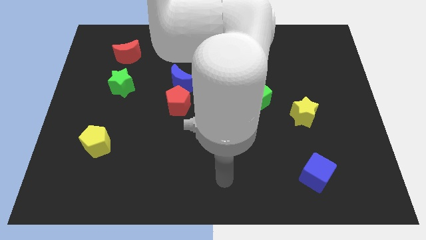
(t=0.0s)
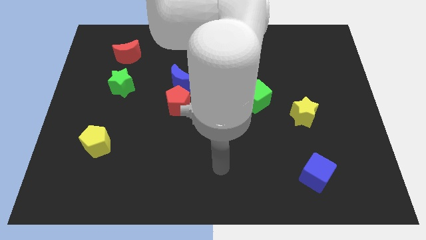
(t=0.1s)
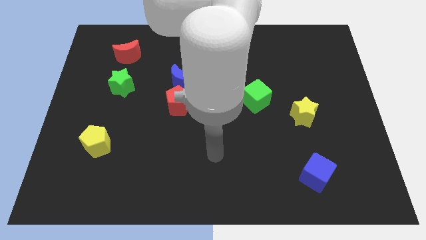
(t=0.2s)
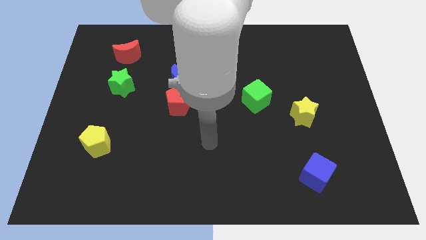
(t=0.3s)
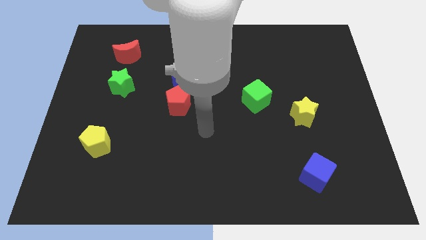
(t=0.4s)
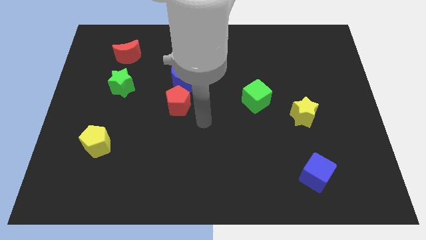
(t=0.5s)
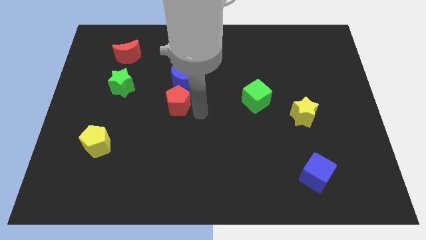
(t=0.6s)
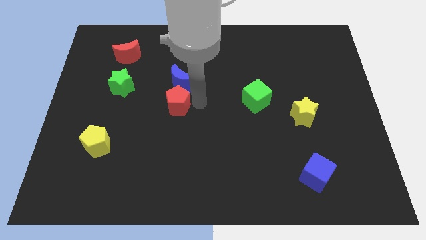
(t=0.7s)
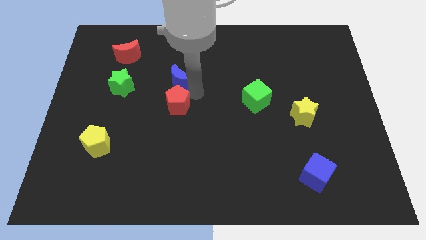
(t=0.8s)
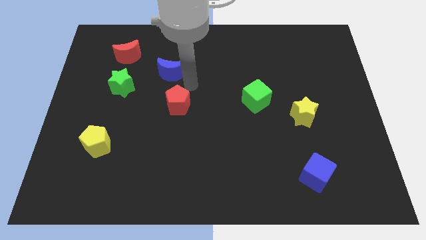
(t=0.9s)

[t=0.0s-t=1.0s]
separate the red pentagon from the blue moon

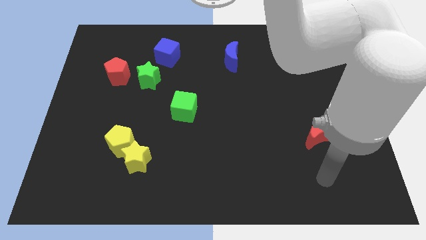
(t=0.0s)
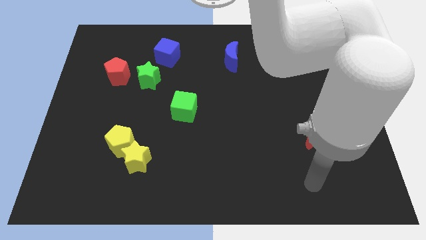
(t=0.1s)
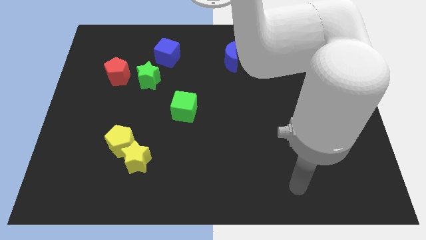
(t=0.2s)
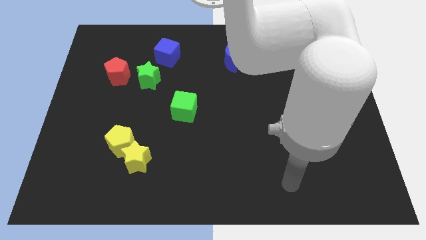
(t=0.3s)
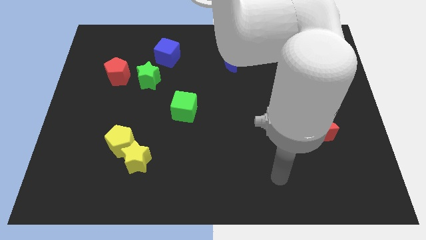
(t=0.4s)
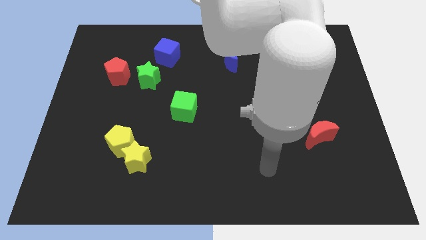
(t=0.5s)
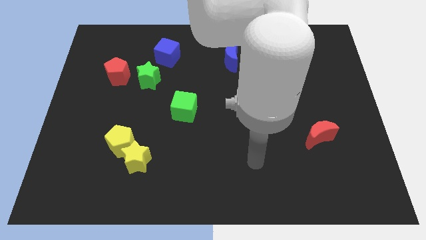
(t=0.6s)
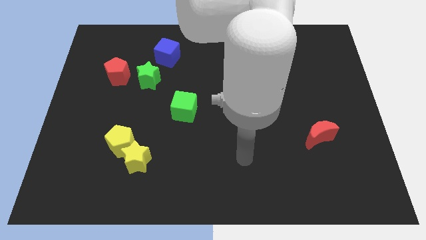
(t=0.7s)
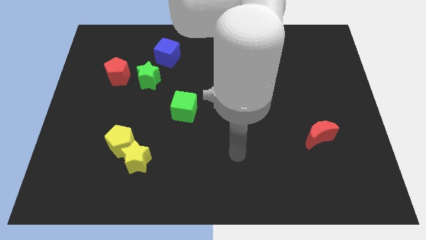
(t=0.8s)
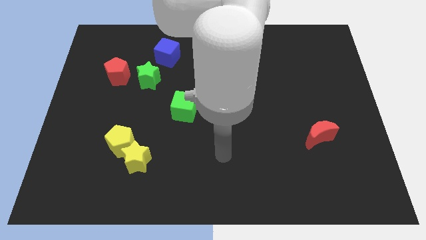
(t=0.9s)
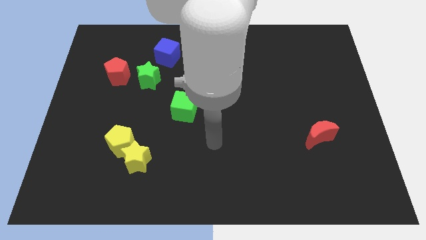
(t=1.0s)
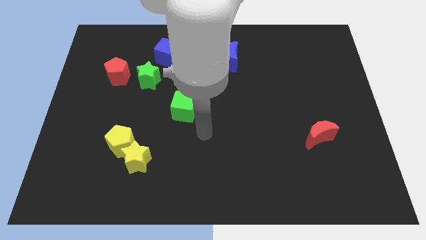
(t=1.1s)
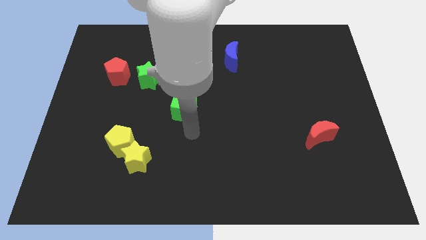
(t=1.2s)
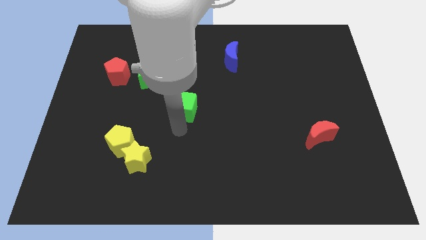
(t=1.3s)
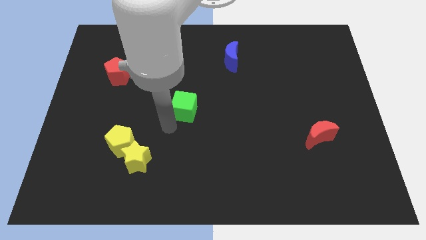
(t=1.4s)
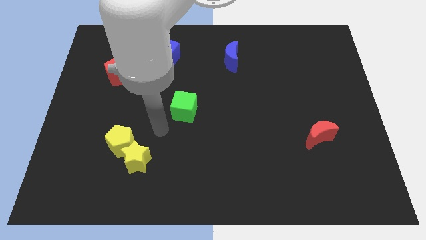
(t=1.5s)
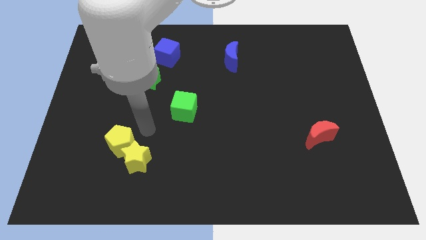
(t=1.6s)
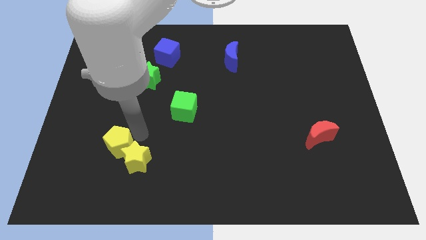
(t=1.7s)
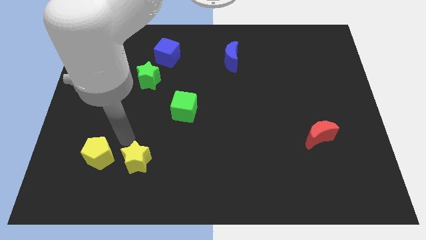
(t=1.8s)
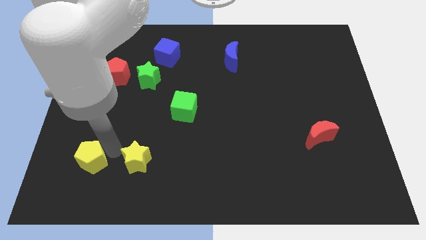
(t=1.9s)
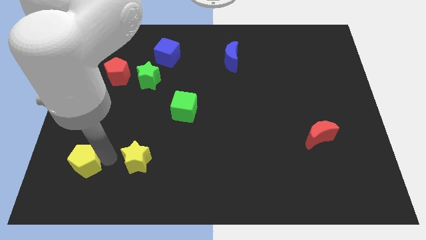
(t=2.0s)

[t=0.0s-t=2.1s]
separate the yellow star from the yellow pentagon

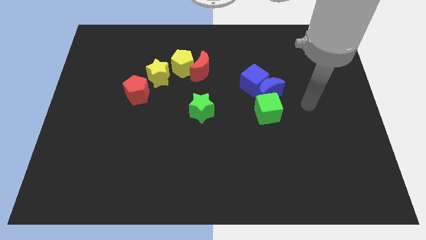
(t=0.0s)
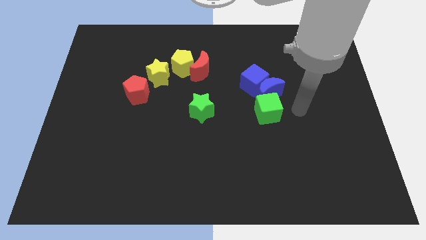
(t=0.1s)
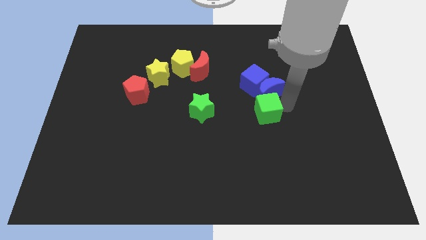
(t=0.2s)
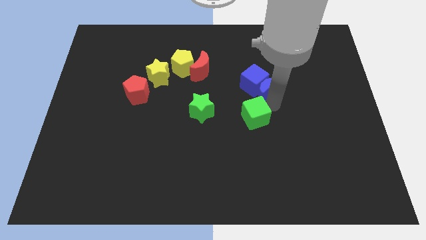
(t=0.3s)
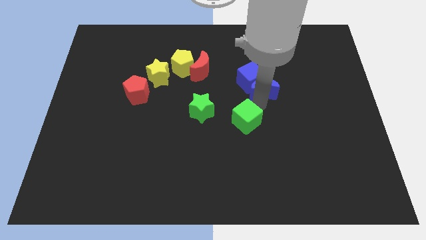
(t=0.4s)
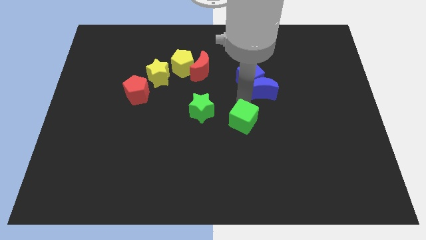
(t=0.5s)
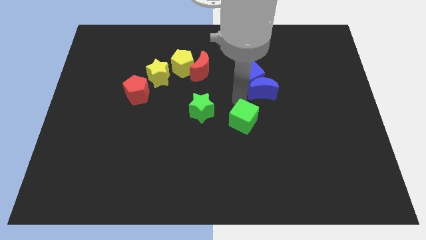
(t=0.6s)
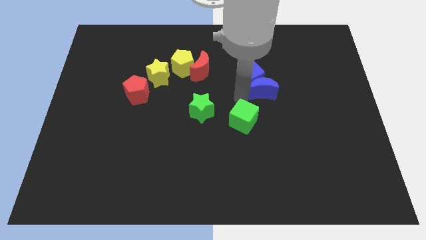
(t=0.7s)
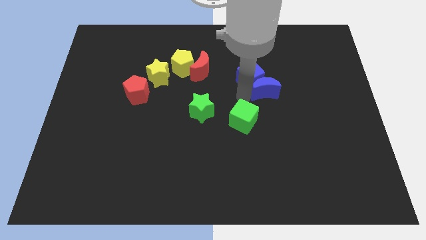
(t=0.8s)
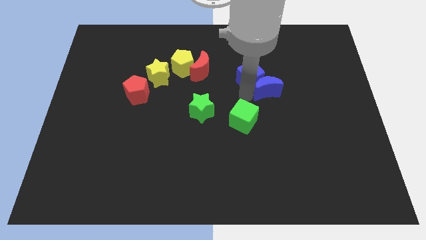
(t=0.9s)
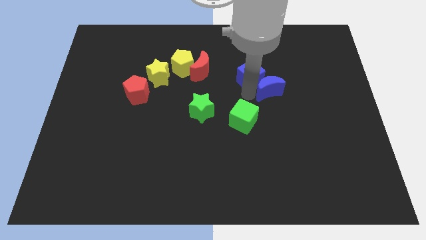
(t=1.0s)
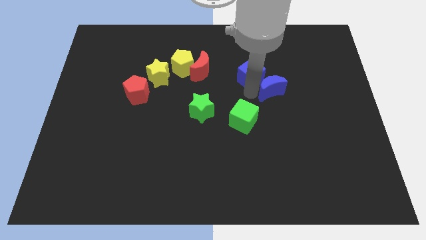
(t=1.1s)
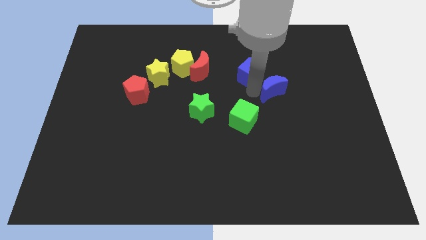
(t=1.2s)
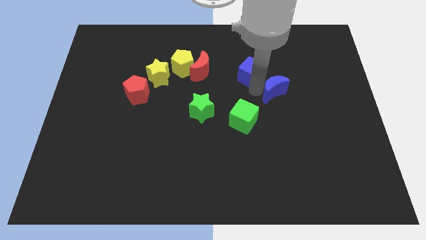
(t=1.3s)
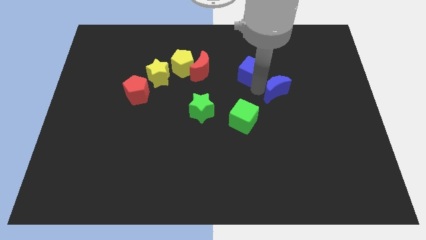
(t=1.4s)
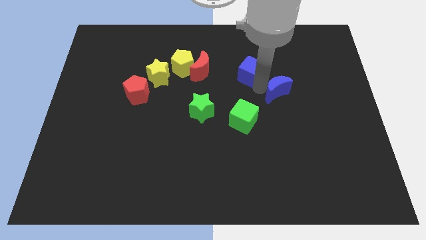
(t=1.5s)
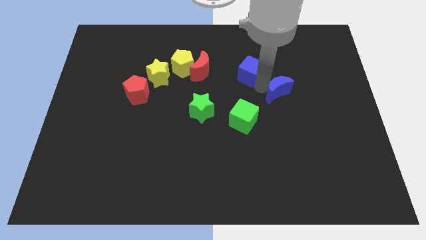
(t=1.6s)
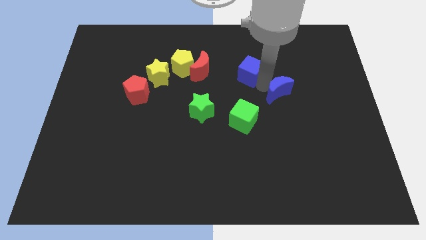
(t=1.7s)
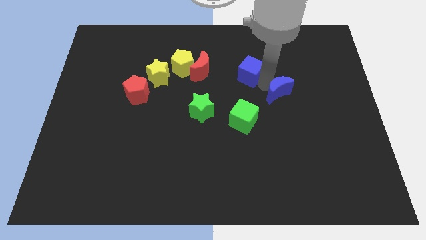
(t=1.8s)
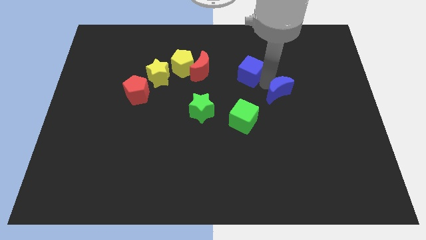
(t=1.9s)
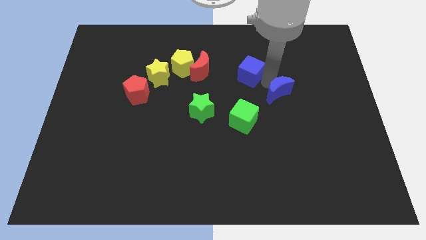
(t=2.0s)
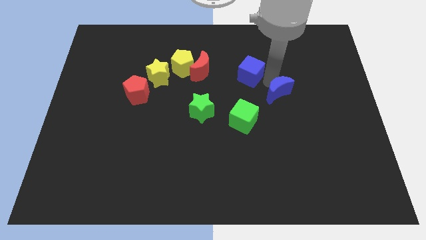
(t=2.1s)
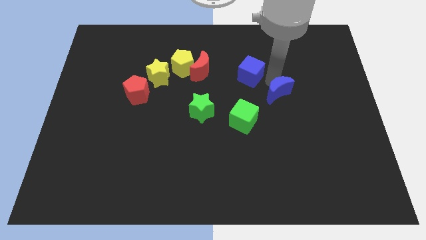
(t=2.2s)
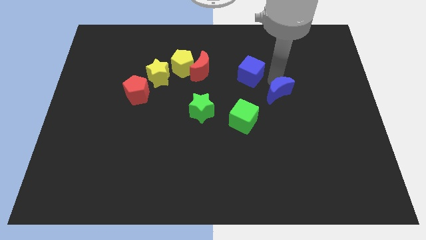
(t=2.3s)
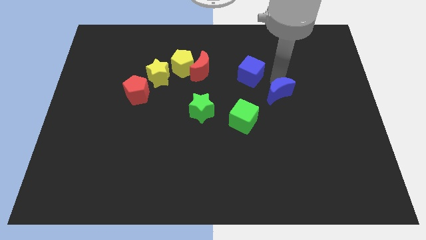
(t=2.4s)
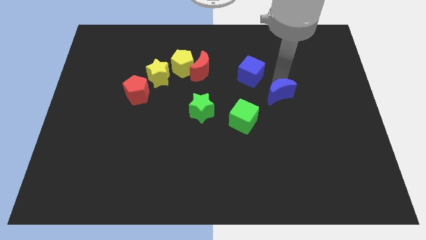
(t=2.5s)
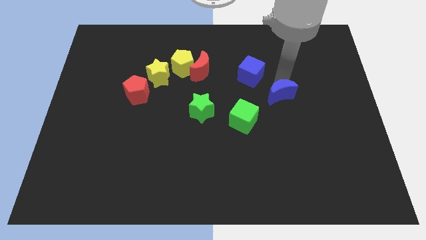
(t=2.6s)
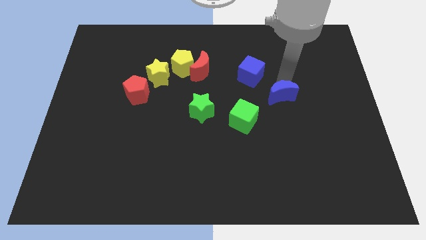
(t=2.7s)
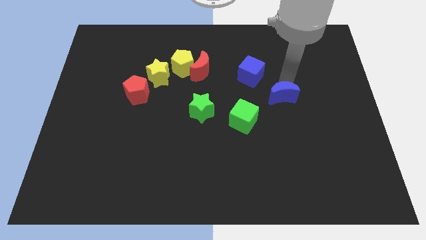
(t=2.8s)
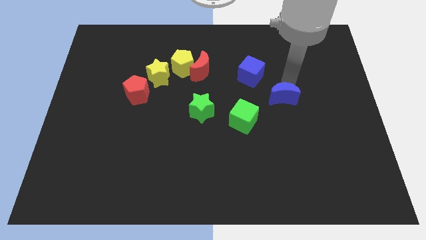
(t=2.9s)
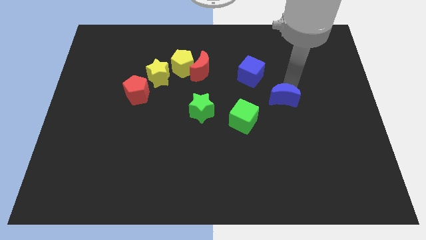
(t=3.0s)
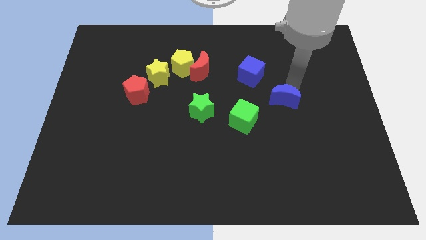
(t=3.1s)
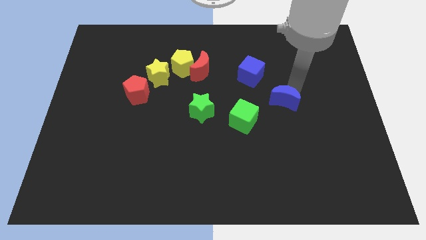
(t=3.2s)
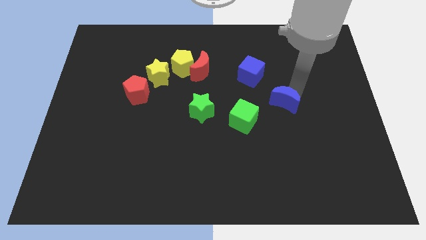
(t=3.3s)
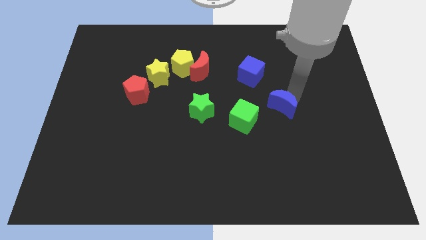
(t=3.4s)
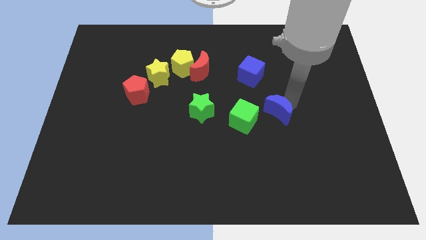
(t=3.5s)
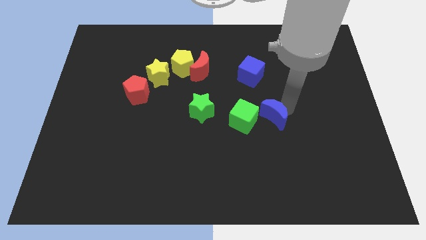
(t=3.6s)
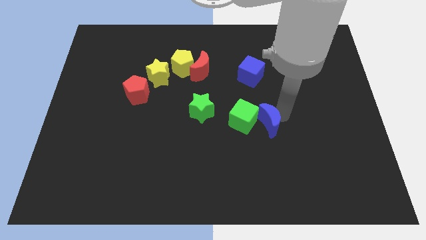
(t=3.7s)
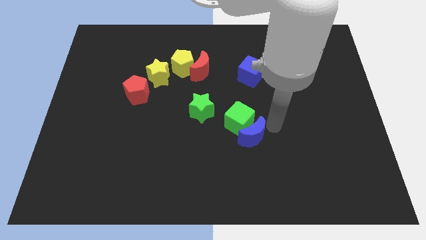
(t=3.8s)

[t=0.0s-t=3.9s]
move the blue moon away from the blue cube and green cube

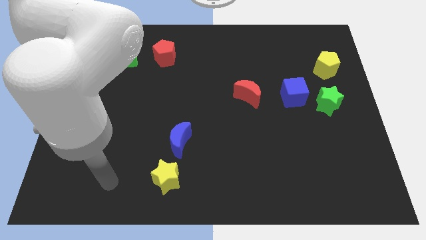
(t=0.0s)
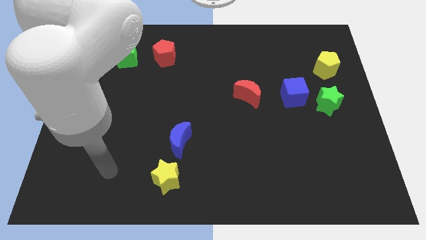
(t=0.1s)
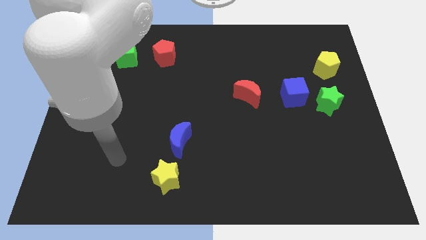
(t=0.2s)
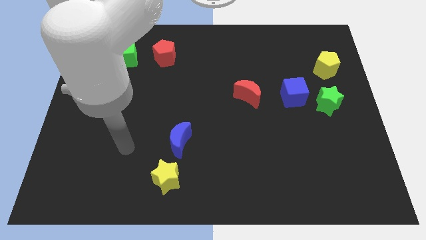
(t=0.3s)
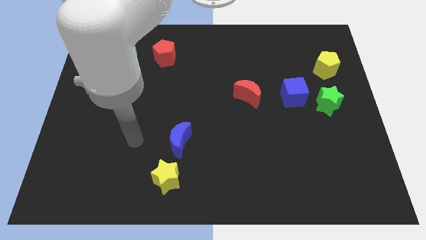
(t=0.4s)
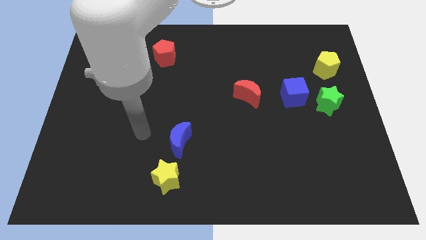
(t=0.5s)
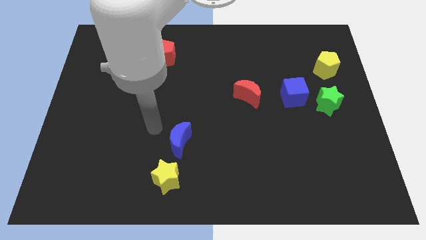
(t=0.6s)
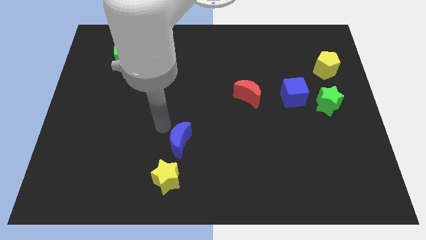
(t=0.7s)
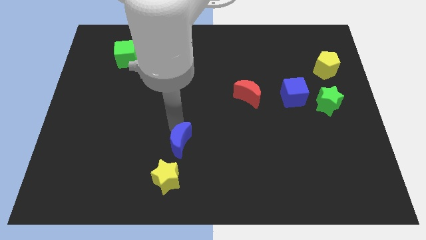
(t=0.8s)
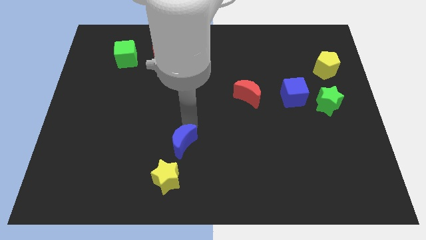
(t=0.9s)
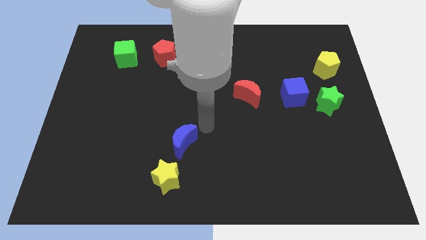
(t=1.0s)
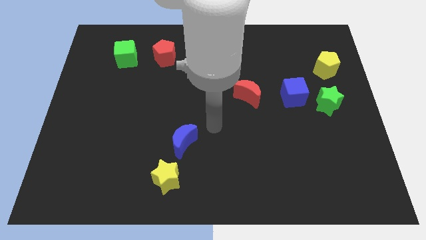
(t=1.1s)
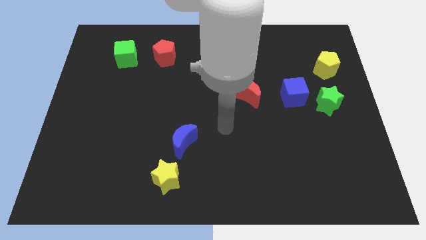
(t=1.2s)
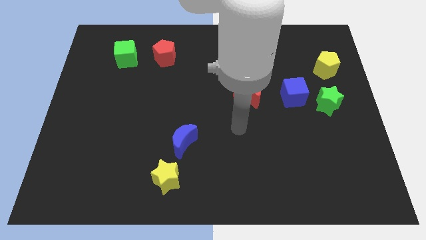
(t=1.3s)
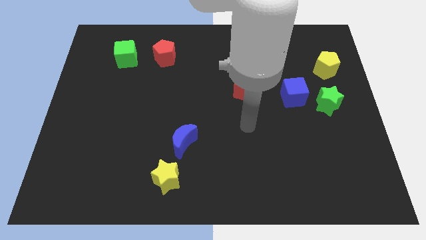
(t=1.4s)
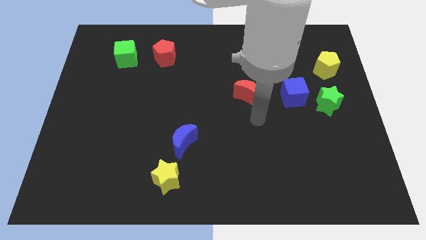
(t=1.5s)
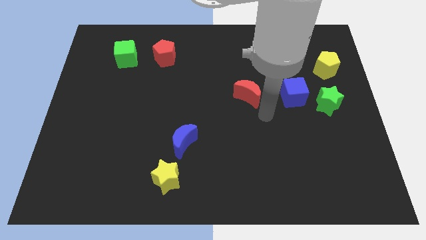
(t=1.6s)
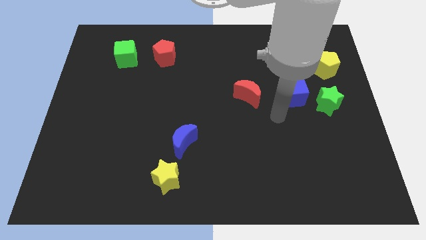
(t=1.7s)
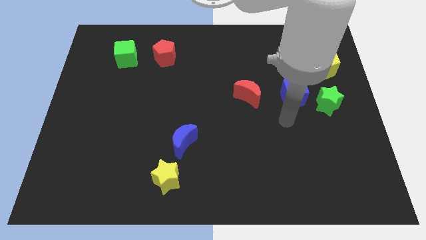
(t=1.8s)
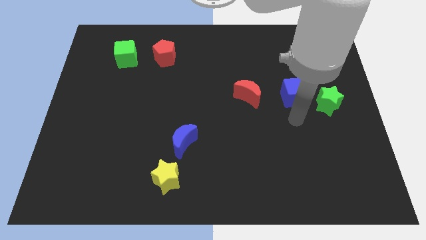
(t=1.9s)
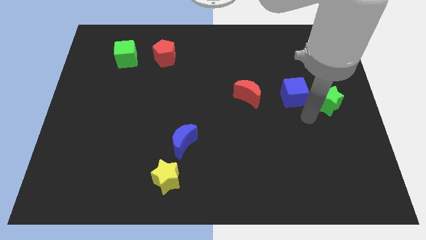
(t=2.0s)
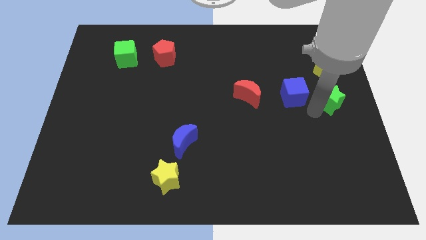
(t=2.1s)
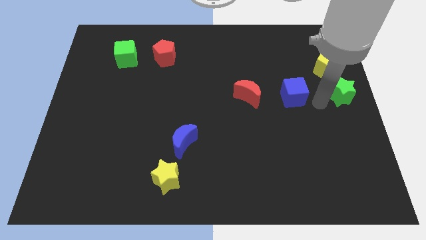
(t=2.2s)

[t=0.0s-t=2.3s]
pull the blue cube apart from the green star
